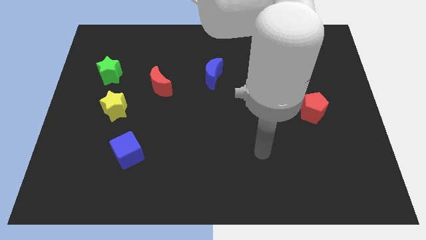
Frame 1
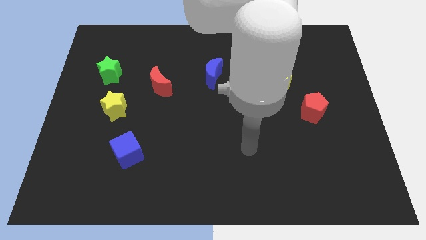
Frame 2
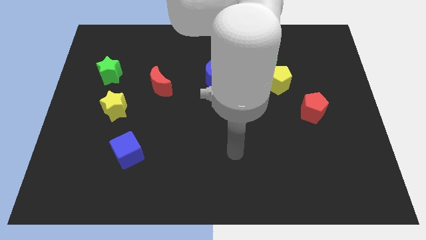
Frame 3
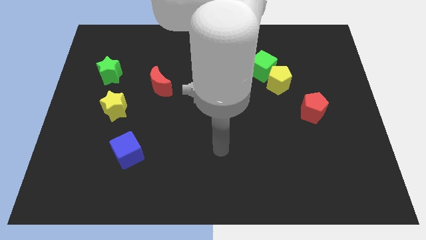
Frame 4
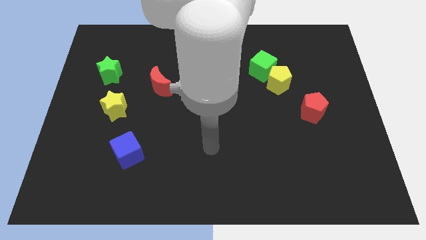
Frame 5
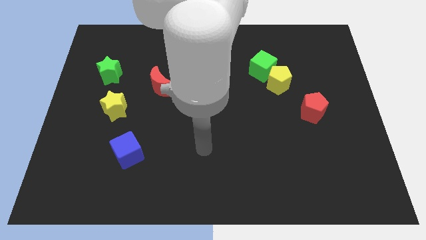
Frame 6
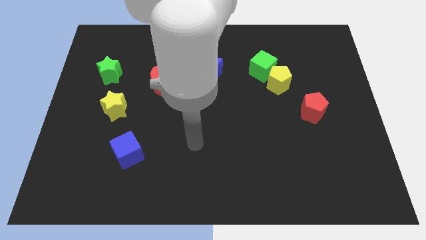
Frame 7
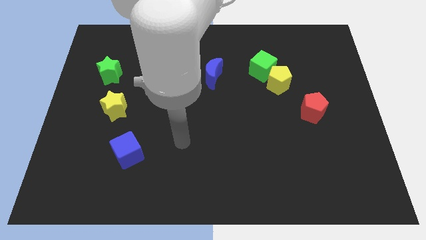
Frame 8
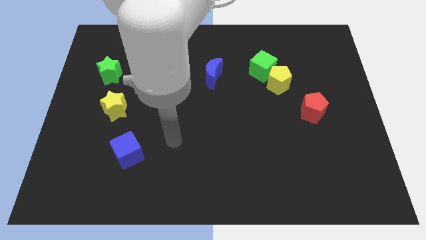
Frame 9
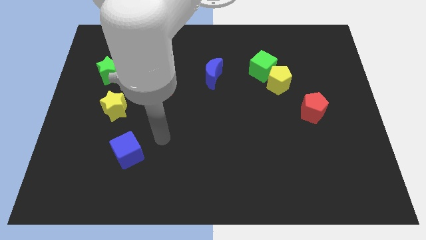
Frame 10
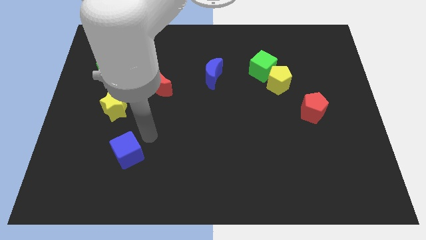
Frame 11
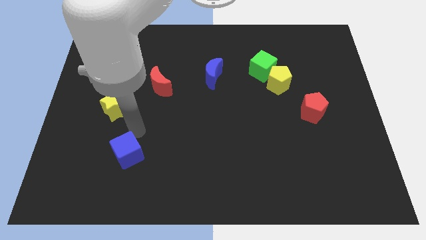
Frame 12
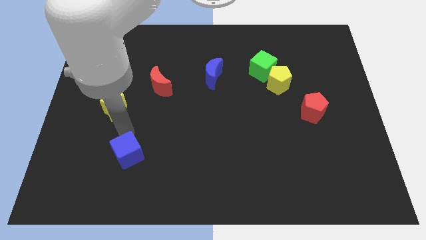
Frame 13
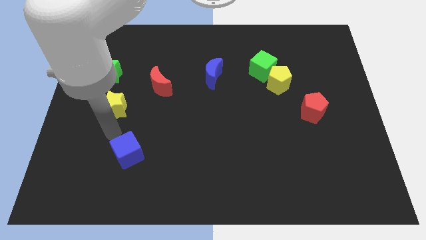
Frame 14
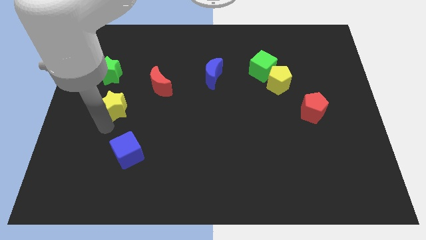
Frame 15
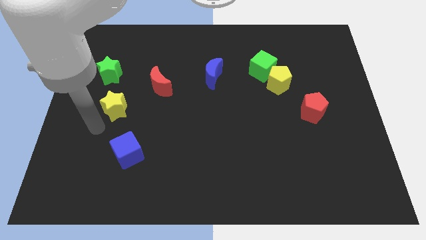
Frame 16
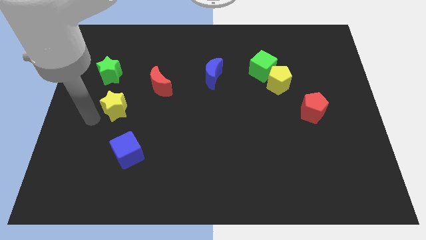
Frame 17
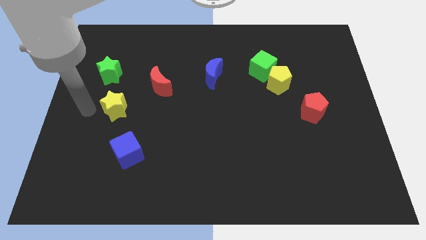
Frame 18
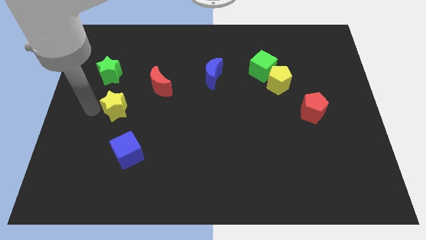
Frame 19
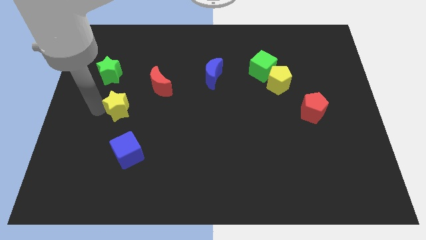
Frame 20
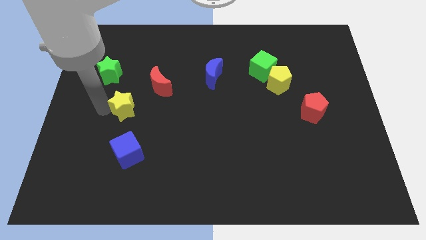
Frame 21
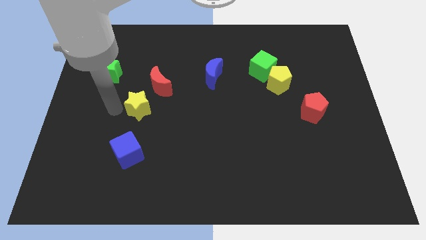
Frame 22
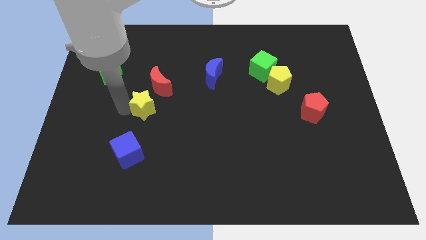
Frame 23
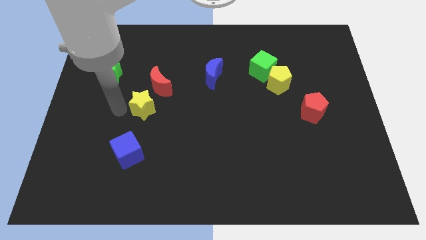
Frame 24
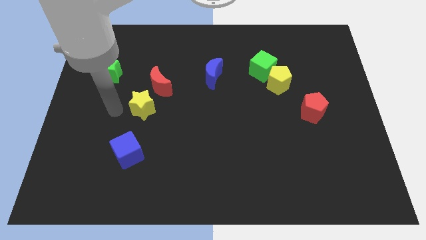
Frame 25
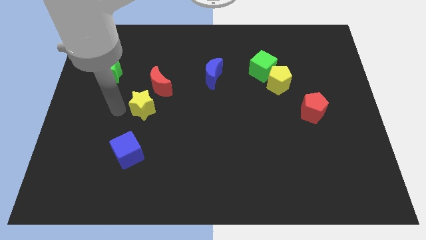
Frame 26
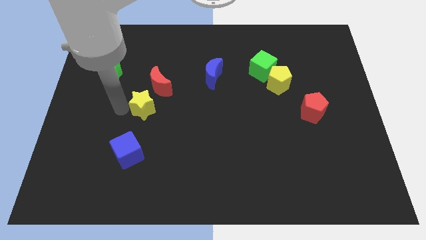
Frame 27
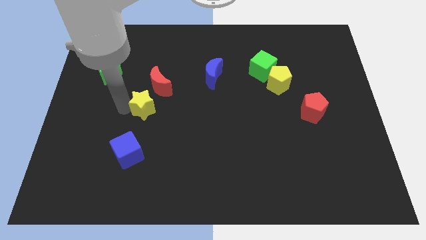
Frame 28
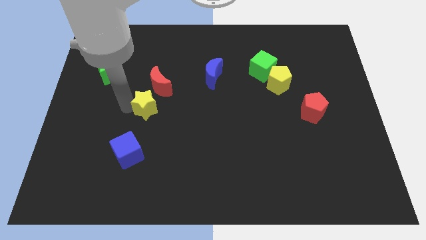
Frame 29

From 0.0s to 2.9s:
slightly push the yellow star to the right

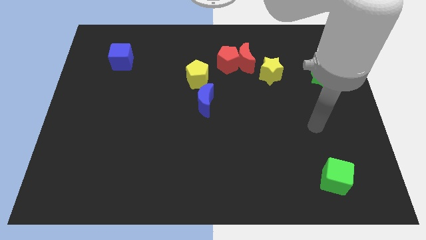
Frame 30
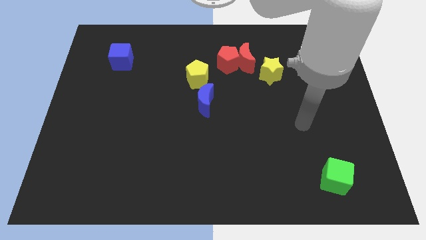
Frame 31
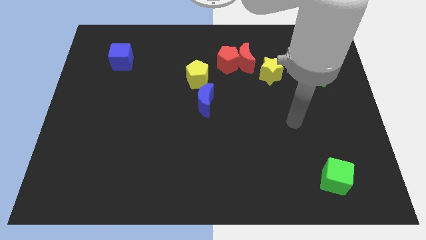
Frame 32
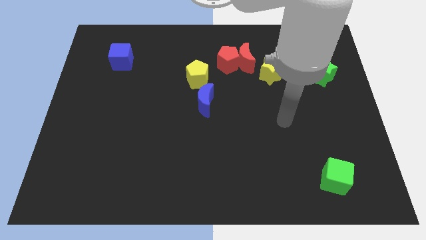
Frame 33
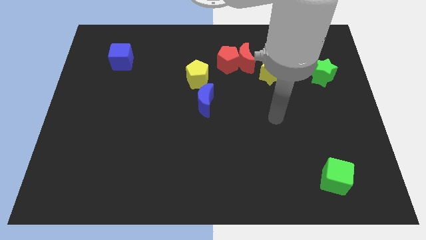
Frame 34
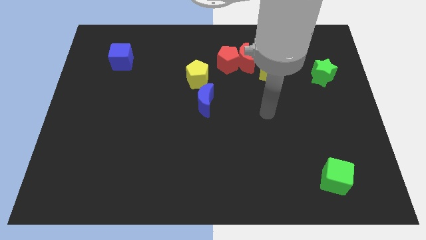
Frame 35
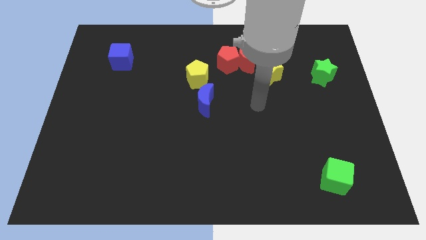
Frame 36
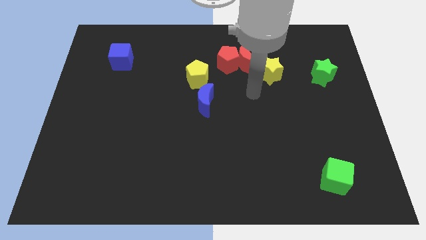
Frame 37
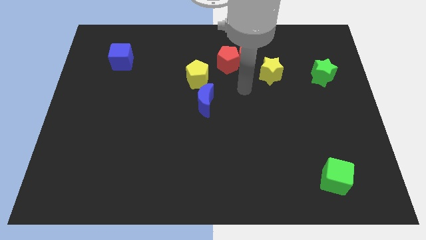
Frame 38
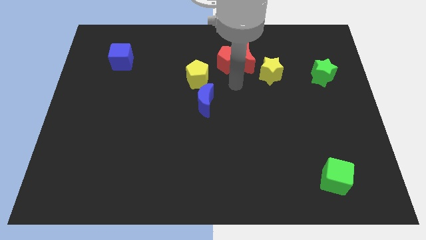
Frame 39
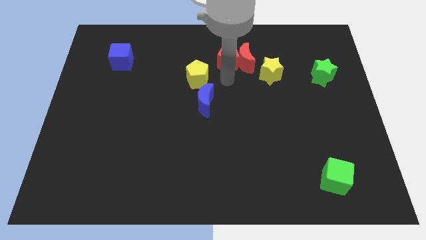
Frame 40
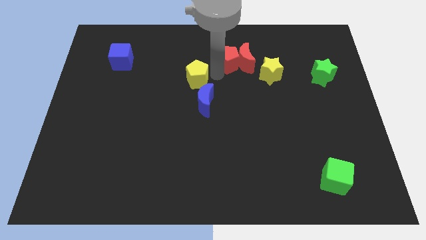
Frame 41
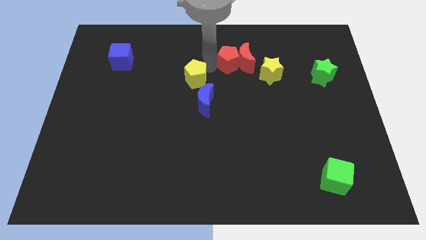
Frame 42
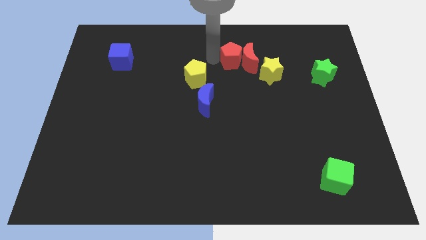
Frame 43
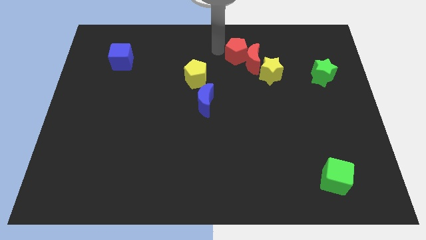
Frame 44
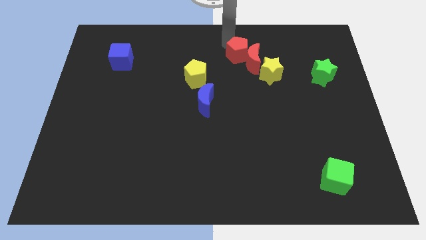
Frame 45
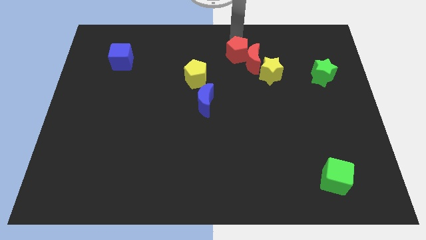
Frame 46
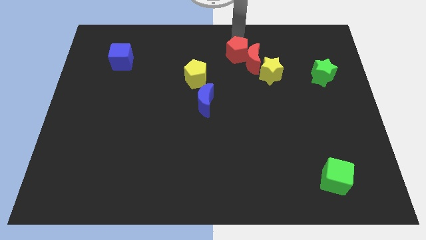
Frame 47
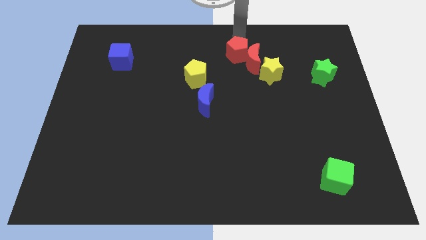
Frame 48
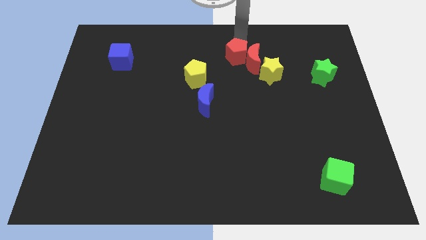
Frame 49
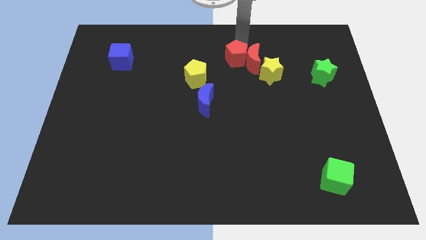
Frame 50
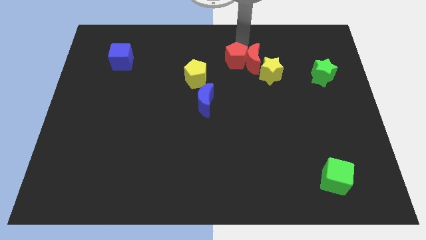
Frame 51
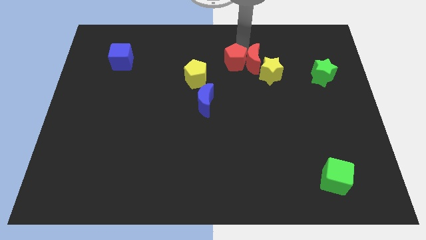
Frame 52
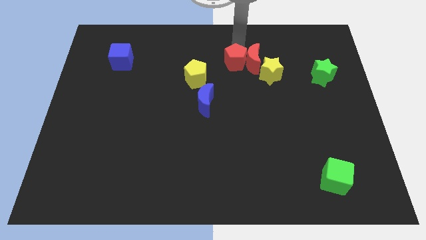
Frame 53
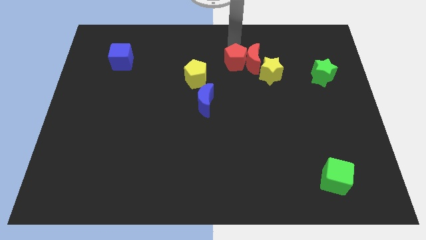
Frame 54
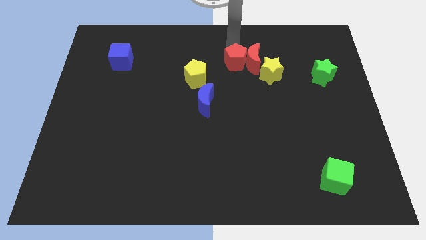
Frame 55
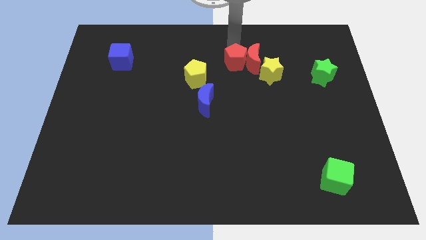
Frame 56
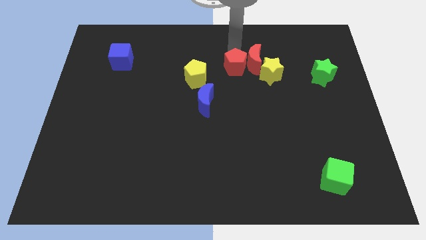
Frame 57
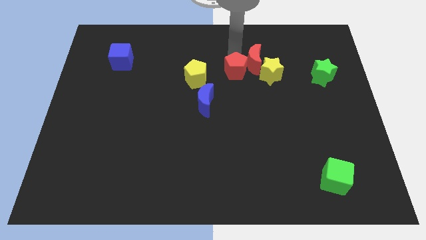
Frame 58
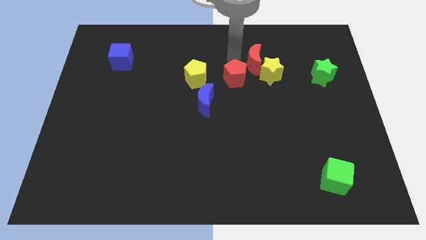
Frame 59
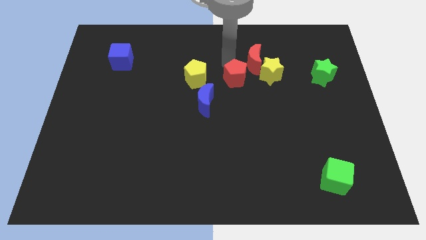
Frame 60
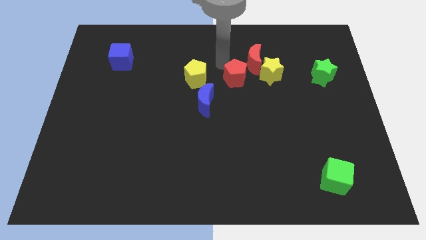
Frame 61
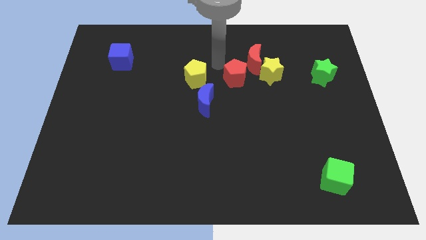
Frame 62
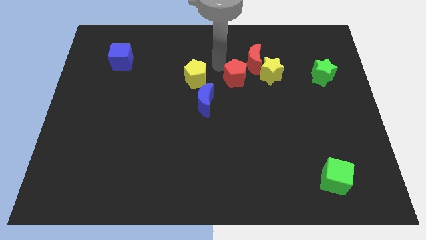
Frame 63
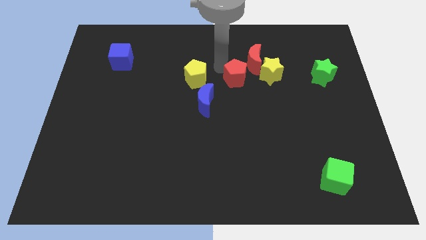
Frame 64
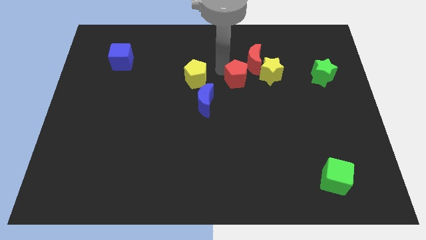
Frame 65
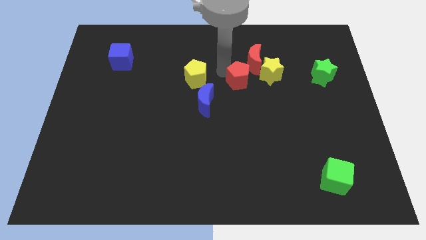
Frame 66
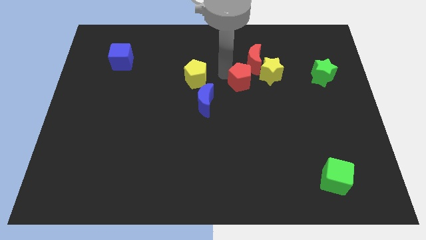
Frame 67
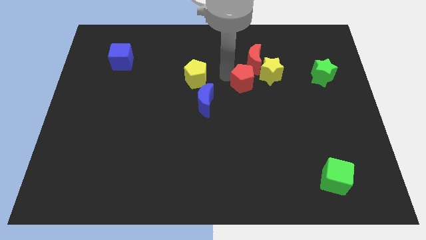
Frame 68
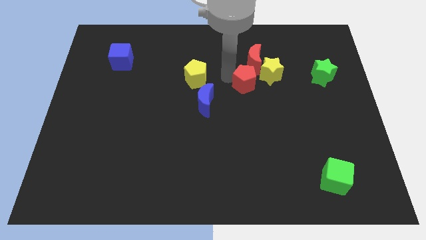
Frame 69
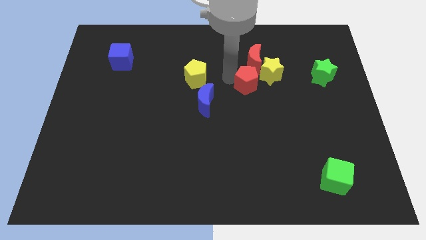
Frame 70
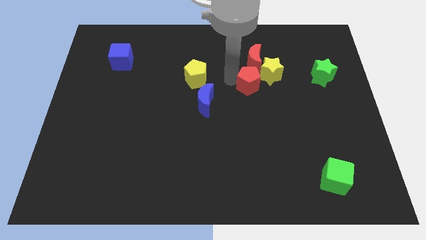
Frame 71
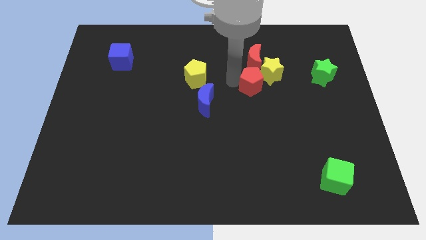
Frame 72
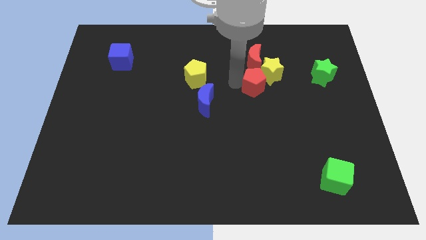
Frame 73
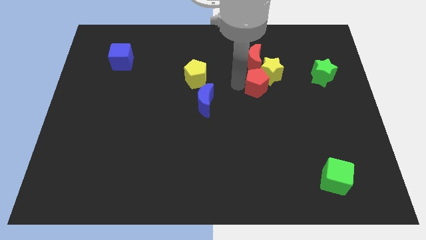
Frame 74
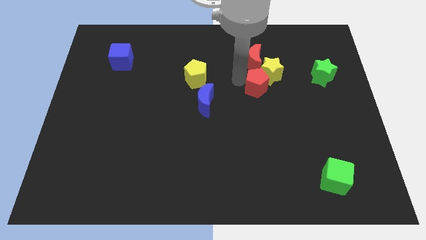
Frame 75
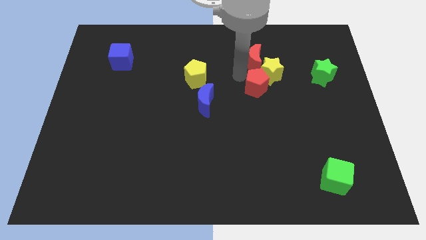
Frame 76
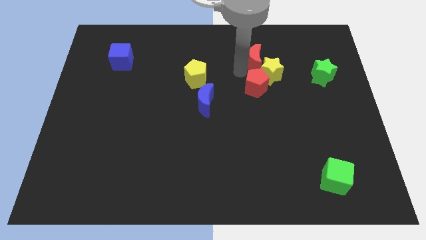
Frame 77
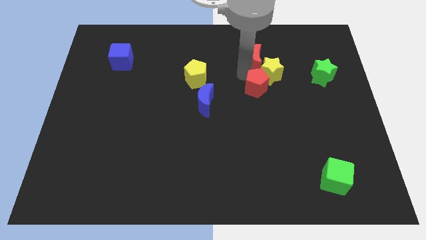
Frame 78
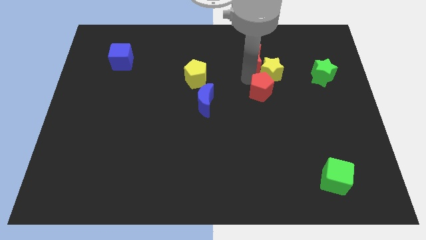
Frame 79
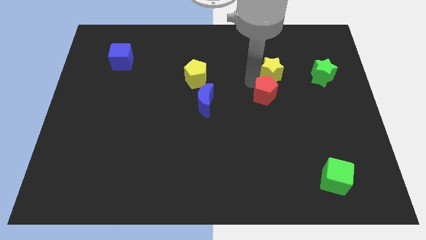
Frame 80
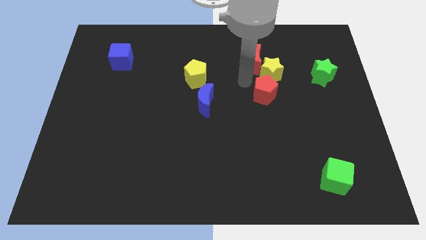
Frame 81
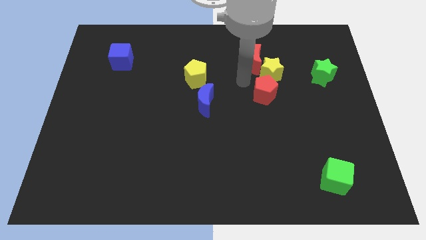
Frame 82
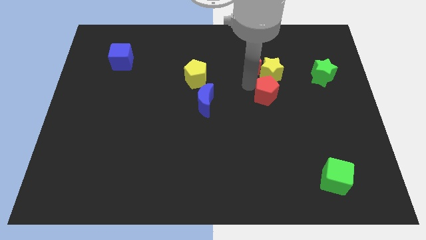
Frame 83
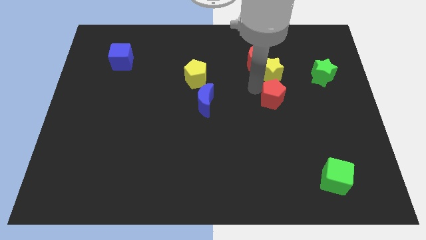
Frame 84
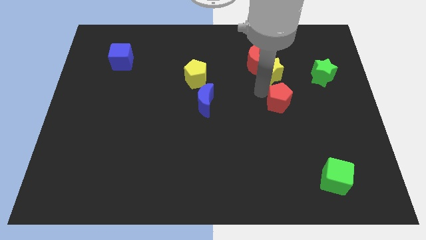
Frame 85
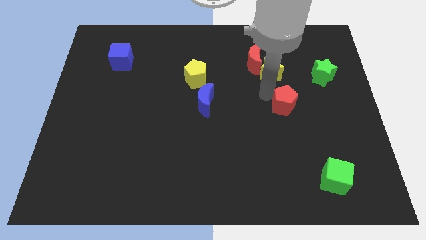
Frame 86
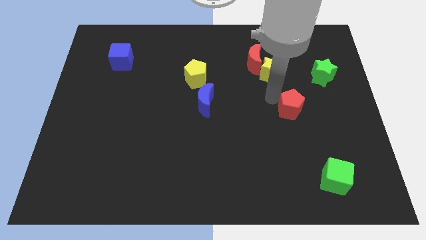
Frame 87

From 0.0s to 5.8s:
slide the red pentagon down and then right
